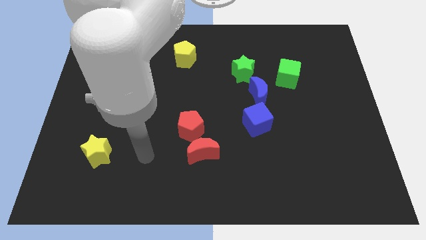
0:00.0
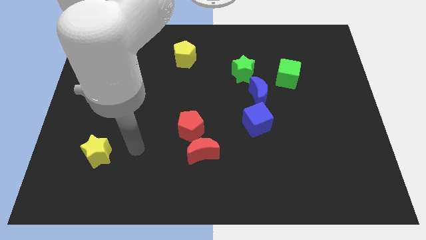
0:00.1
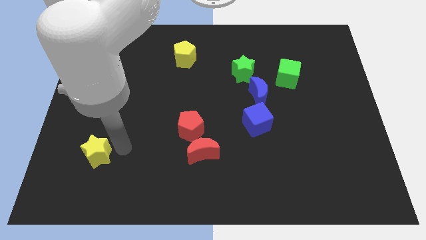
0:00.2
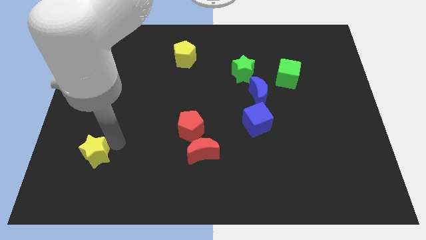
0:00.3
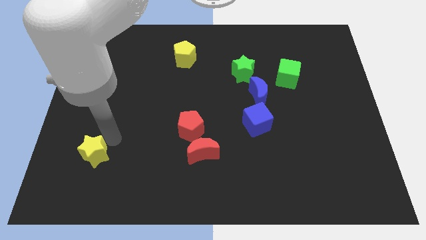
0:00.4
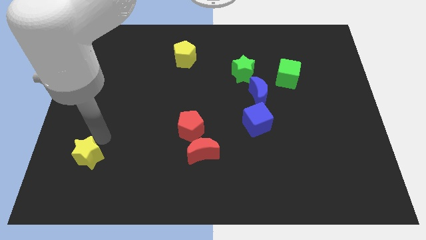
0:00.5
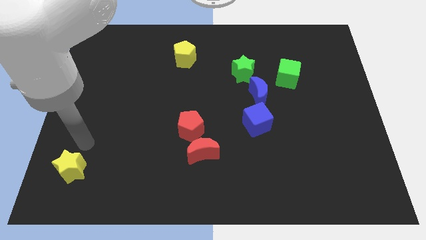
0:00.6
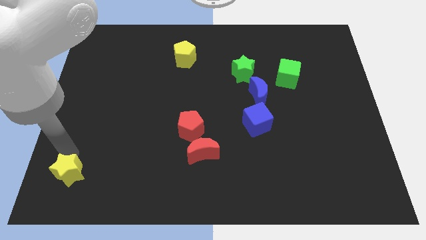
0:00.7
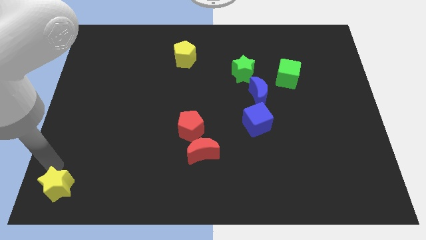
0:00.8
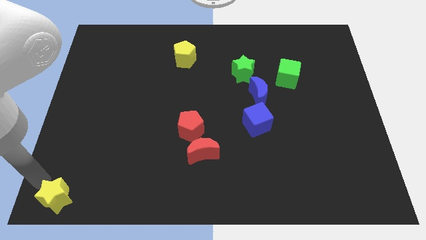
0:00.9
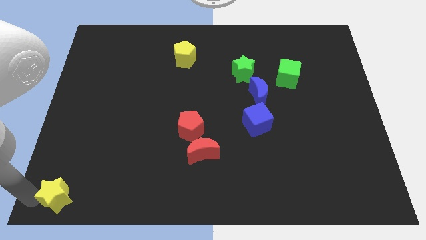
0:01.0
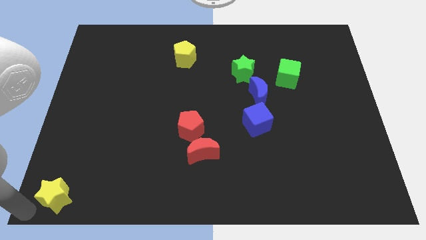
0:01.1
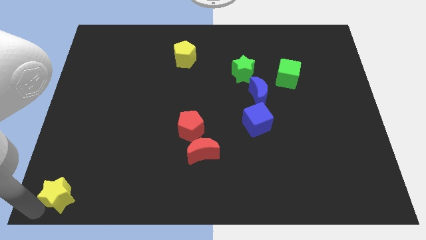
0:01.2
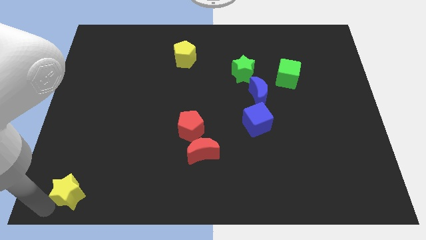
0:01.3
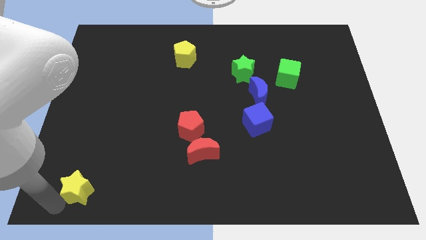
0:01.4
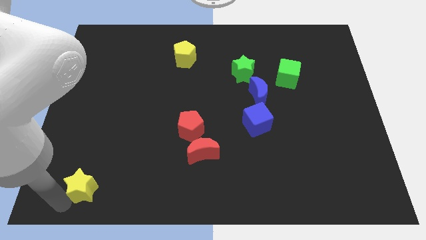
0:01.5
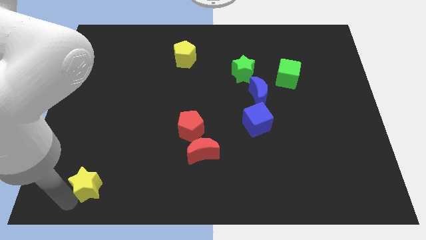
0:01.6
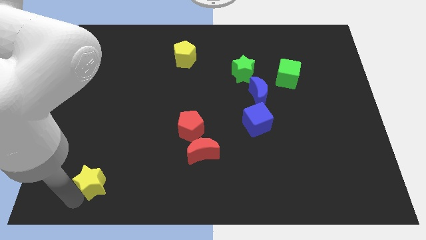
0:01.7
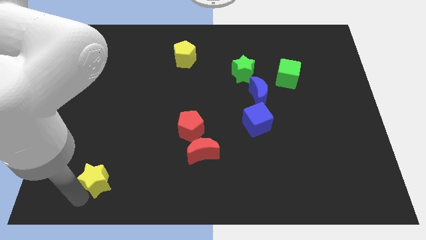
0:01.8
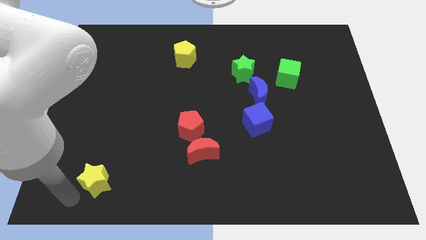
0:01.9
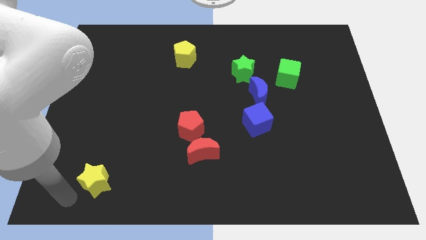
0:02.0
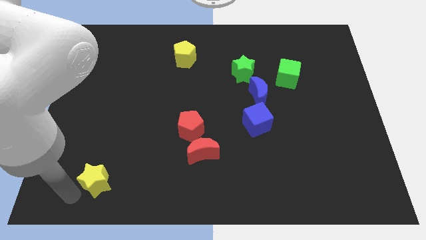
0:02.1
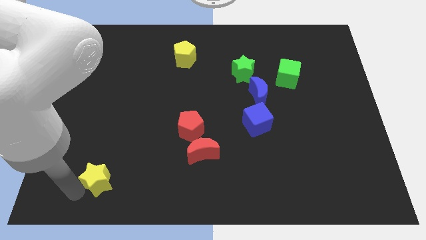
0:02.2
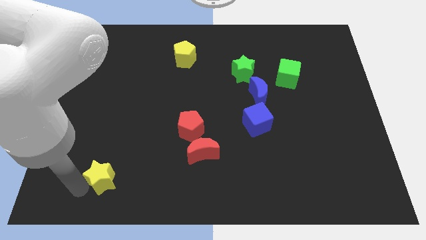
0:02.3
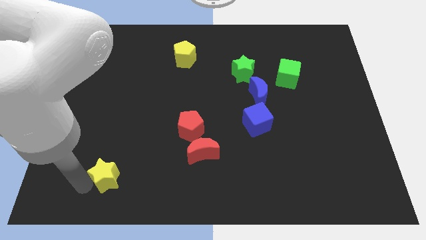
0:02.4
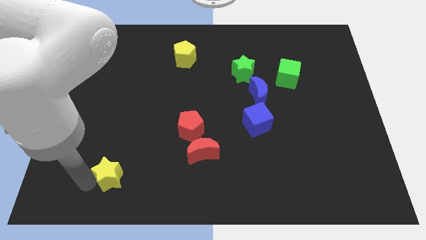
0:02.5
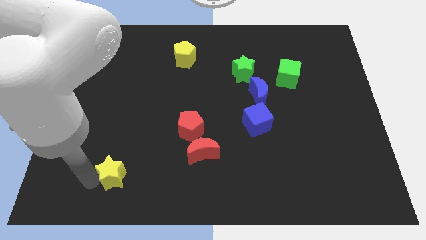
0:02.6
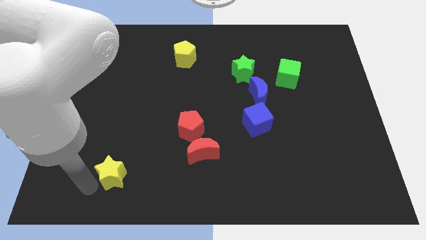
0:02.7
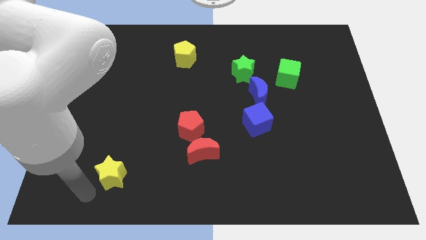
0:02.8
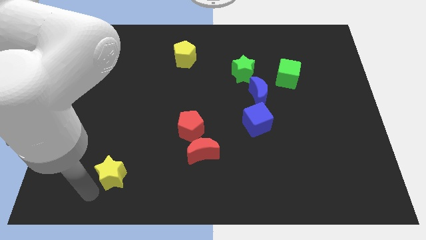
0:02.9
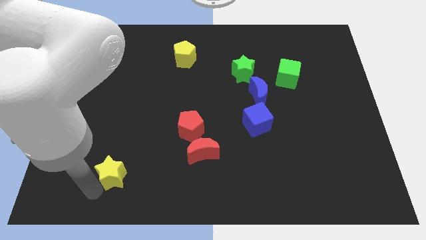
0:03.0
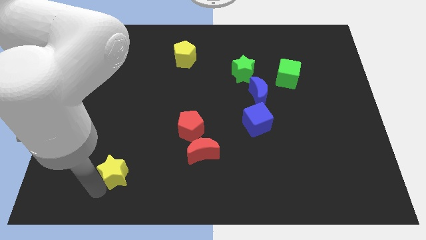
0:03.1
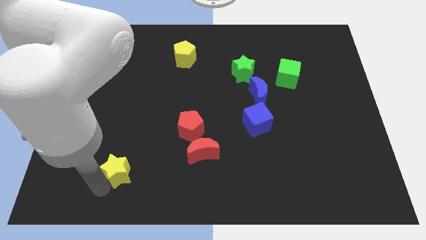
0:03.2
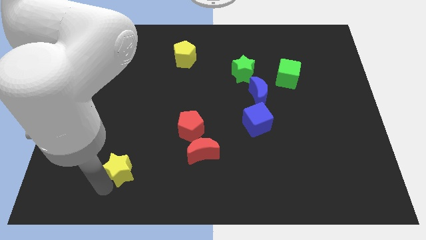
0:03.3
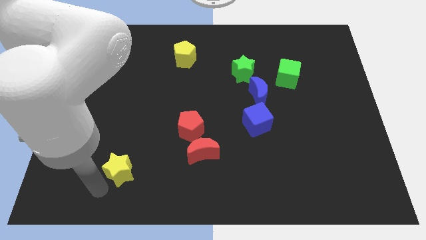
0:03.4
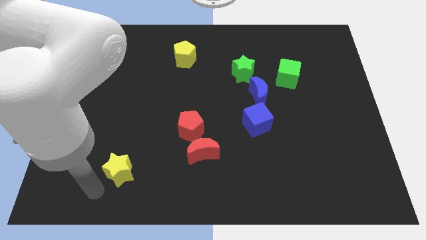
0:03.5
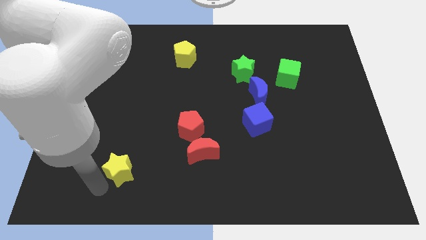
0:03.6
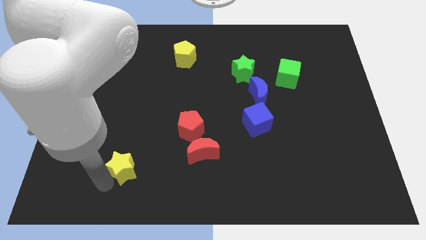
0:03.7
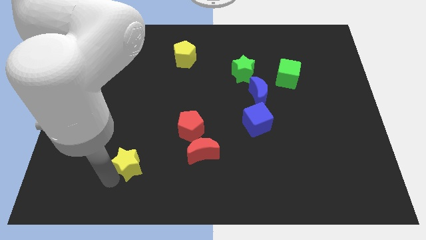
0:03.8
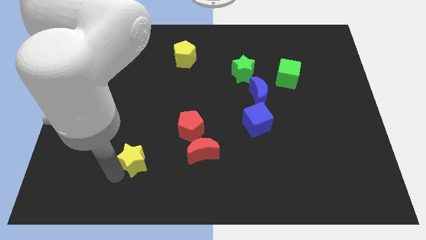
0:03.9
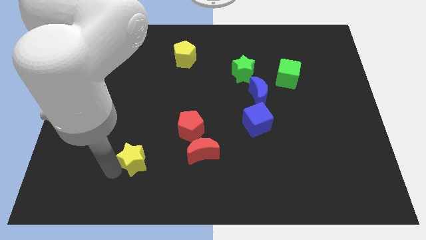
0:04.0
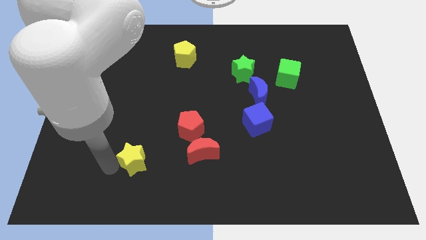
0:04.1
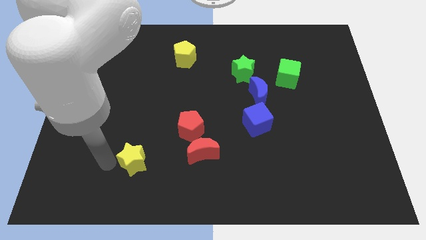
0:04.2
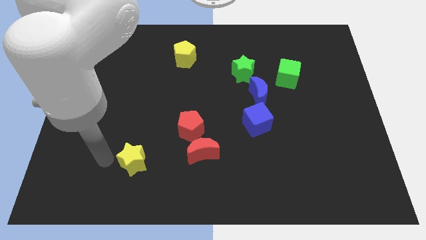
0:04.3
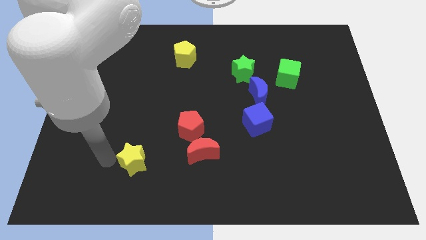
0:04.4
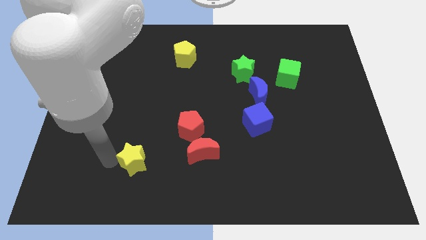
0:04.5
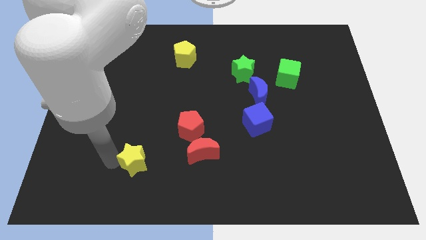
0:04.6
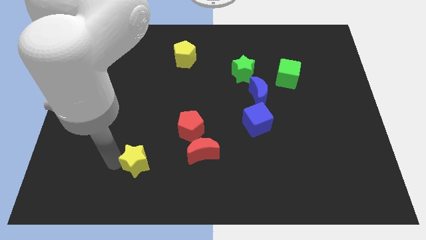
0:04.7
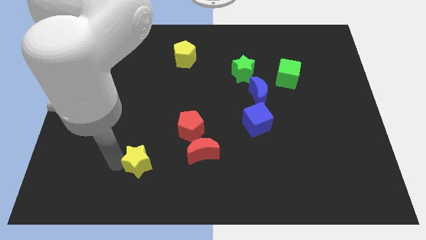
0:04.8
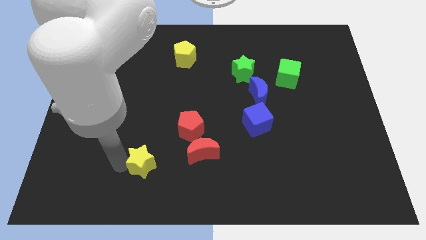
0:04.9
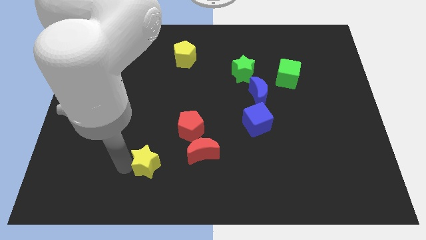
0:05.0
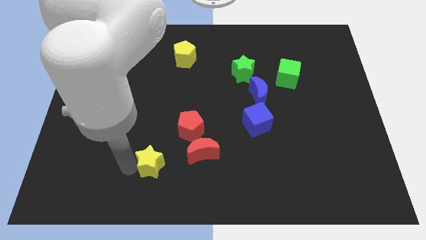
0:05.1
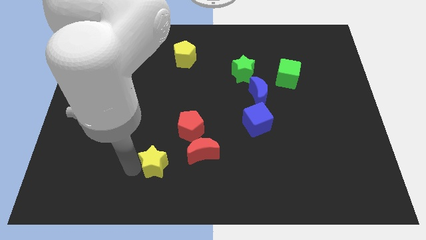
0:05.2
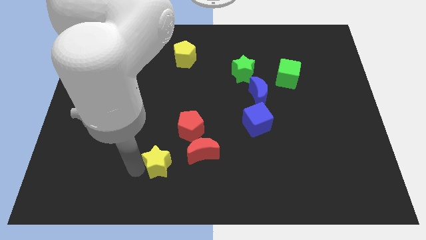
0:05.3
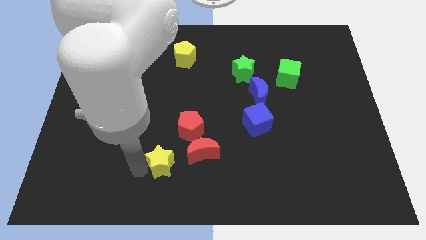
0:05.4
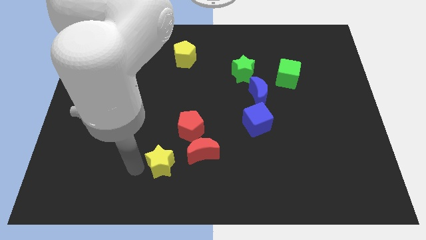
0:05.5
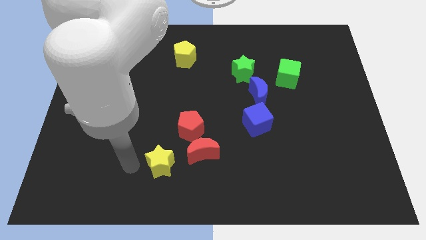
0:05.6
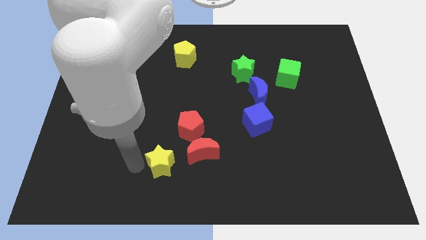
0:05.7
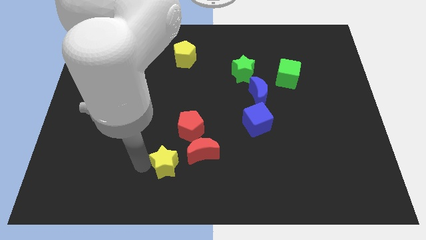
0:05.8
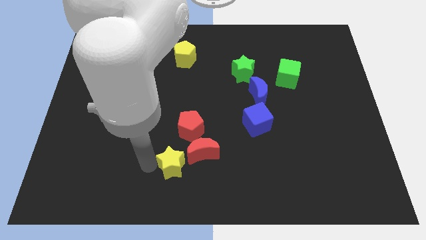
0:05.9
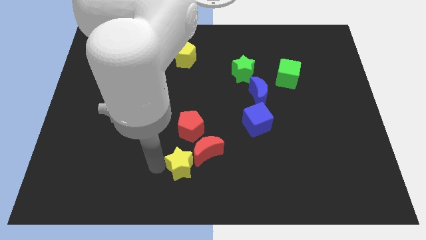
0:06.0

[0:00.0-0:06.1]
slide the yellow star to the red moon

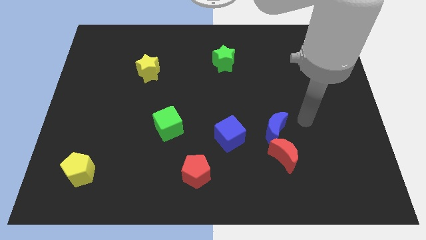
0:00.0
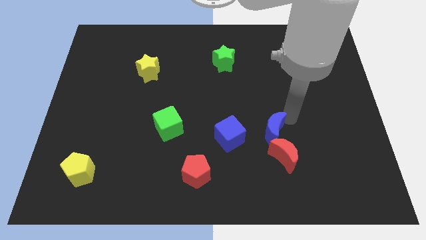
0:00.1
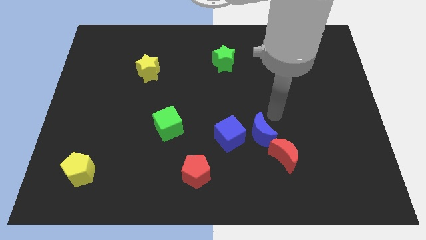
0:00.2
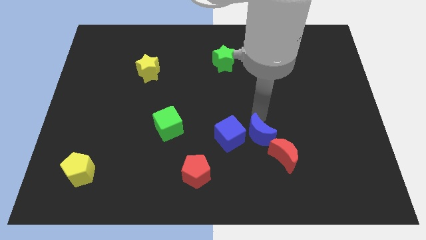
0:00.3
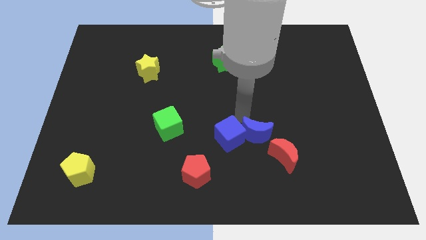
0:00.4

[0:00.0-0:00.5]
slide the blue cube next to the blue moon
